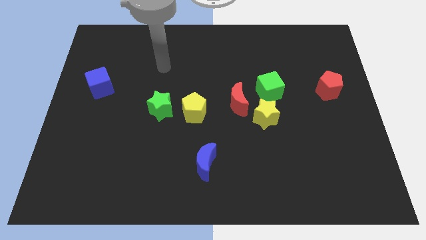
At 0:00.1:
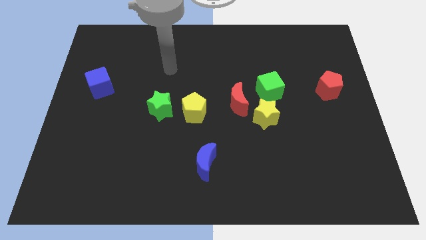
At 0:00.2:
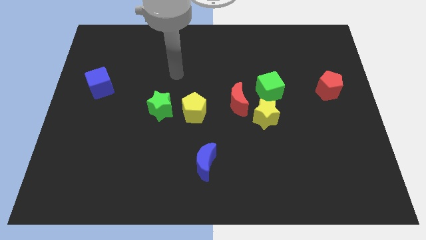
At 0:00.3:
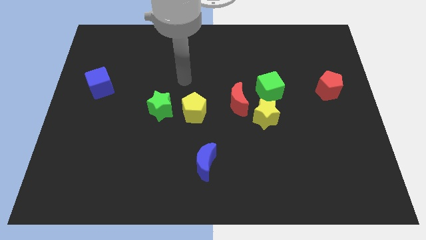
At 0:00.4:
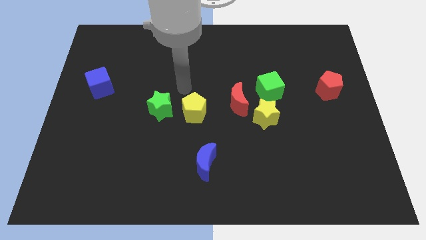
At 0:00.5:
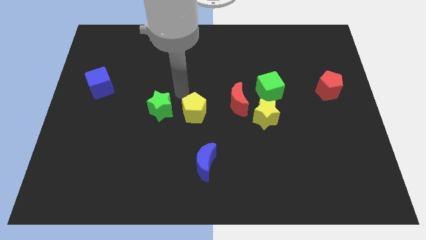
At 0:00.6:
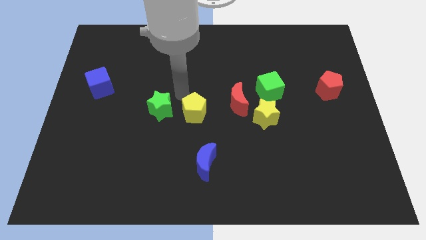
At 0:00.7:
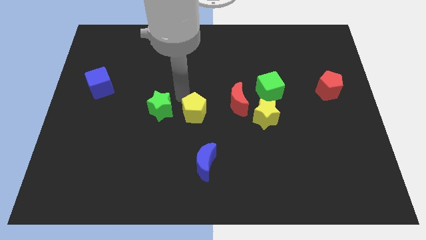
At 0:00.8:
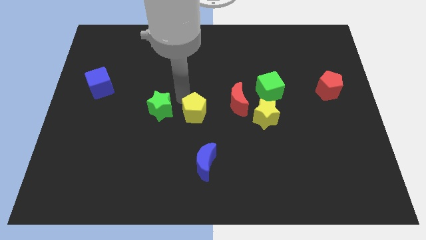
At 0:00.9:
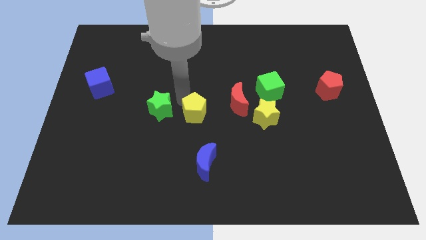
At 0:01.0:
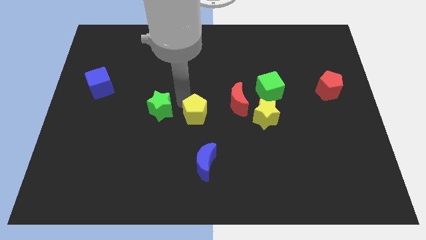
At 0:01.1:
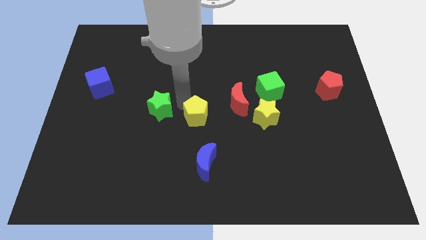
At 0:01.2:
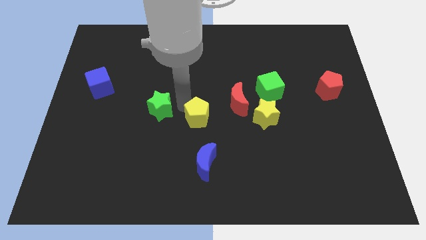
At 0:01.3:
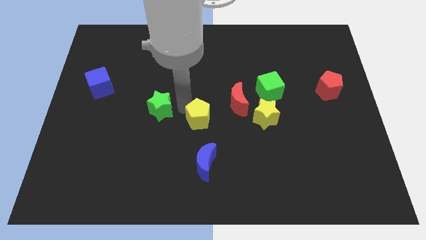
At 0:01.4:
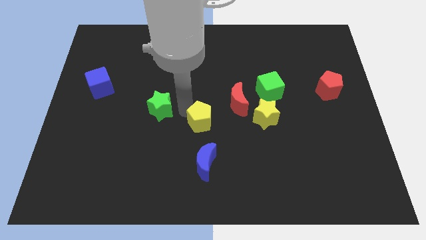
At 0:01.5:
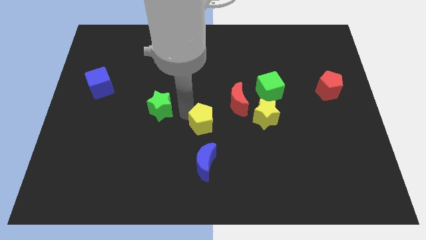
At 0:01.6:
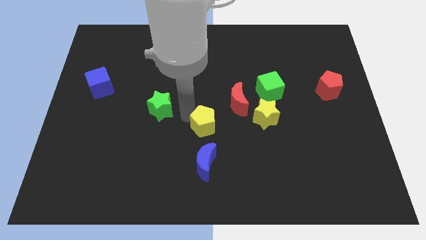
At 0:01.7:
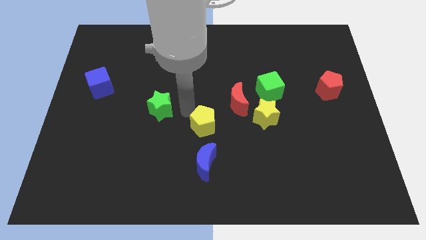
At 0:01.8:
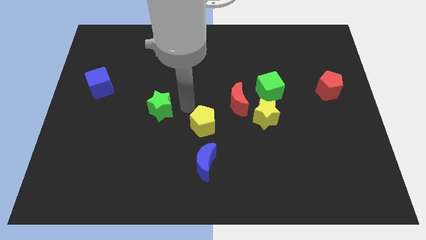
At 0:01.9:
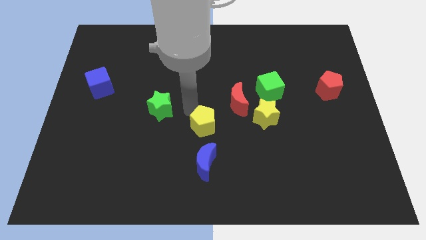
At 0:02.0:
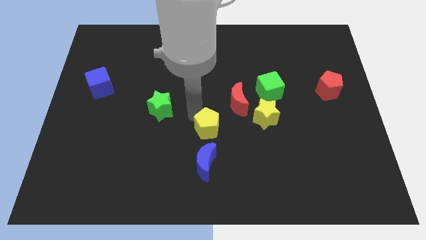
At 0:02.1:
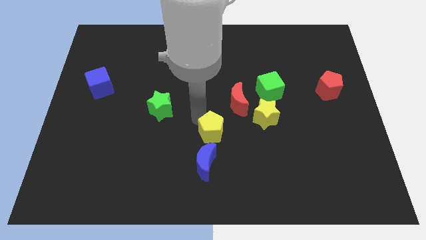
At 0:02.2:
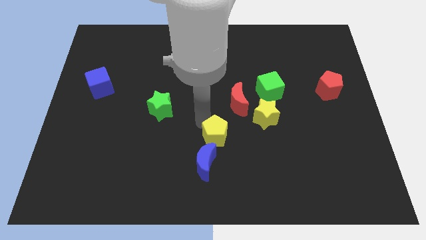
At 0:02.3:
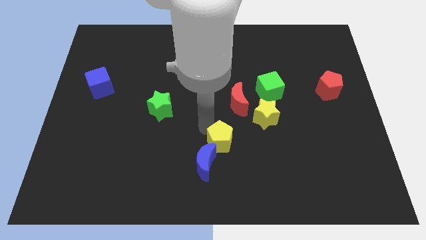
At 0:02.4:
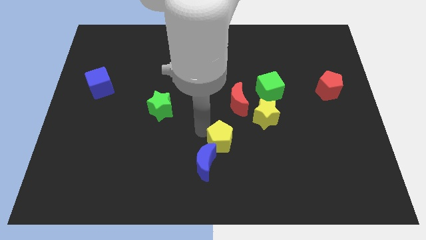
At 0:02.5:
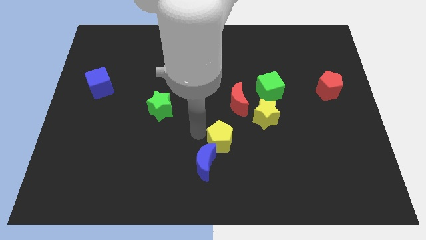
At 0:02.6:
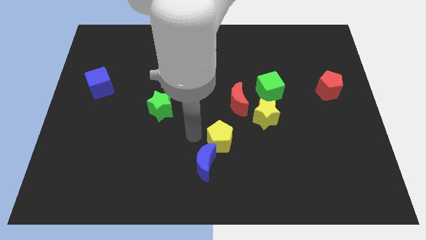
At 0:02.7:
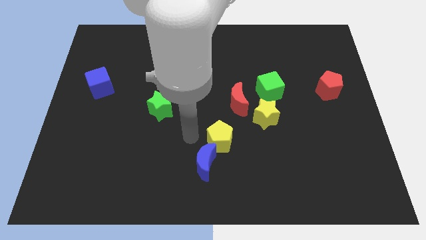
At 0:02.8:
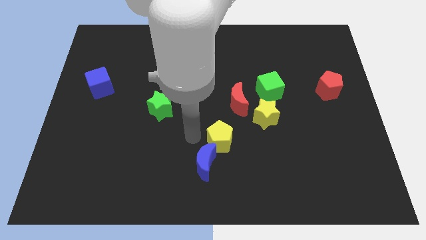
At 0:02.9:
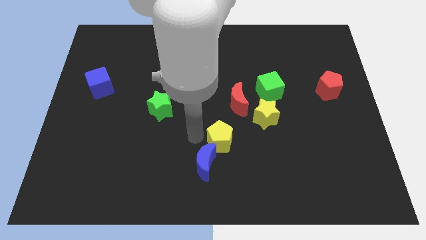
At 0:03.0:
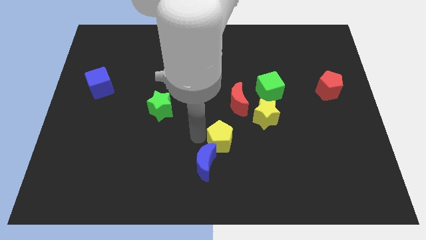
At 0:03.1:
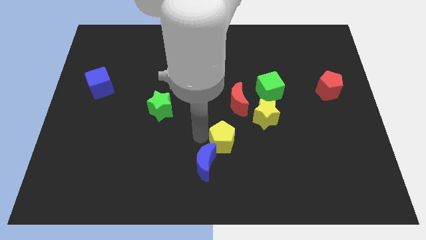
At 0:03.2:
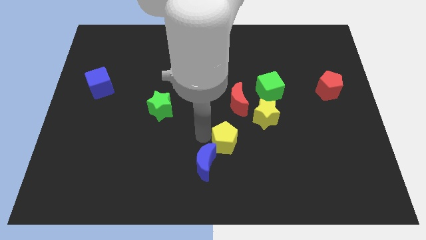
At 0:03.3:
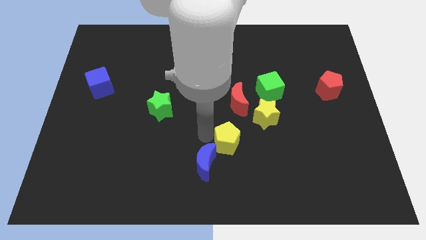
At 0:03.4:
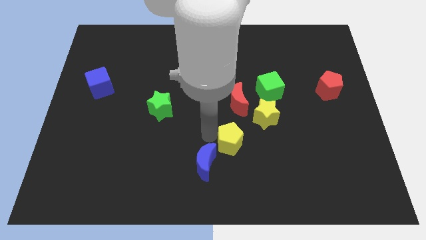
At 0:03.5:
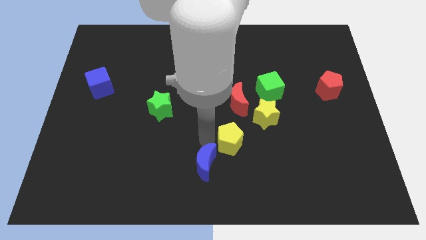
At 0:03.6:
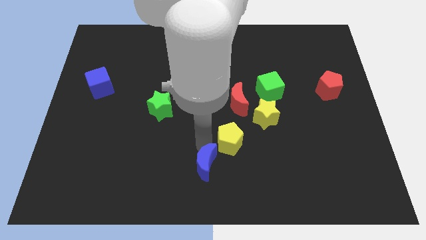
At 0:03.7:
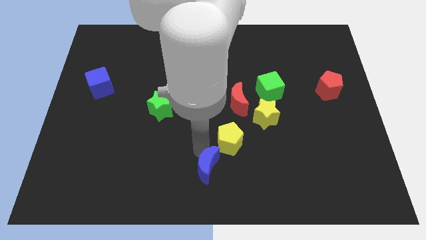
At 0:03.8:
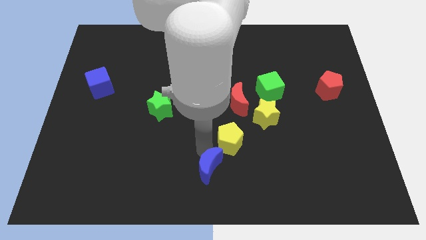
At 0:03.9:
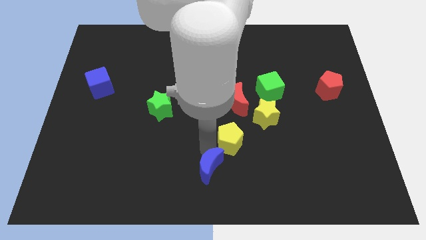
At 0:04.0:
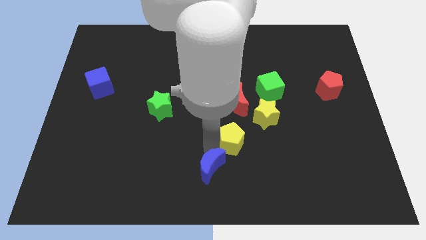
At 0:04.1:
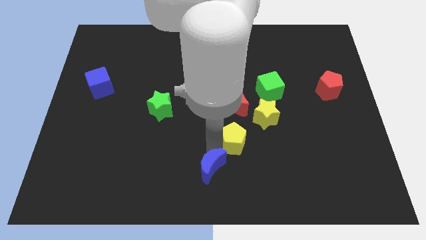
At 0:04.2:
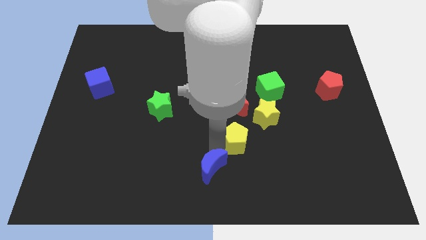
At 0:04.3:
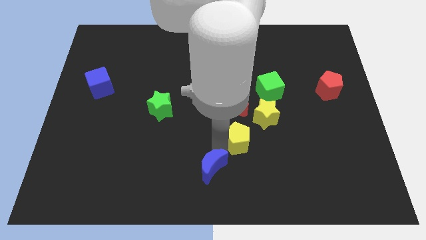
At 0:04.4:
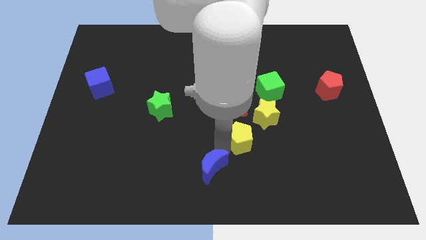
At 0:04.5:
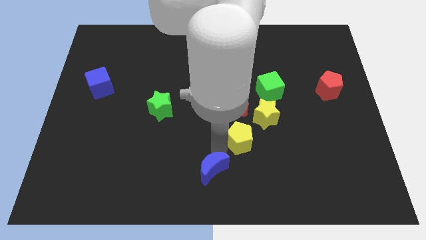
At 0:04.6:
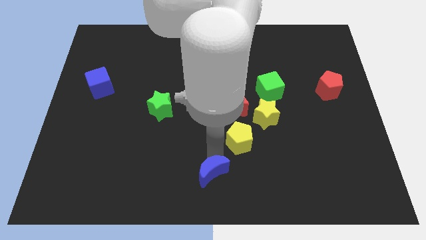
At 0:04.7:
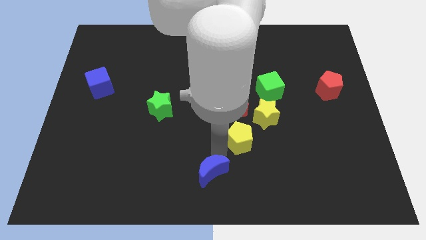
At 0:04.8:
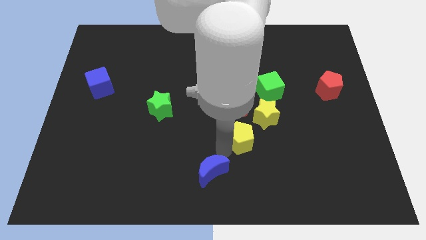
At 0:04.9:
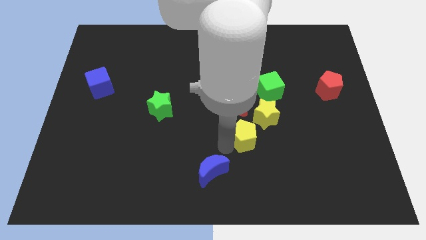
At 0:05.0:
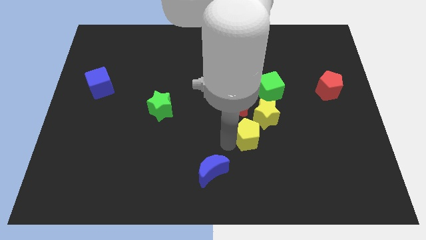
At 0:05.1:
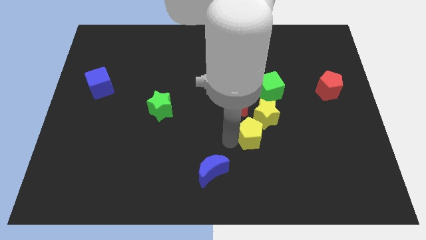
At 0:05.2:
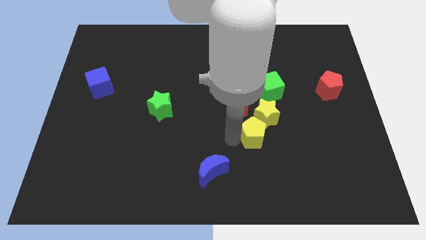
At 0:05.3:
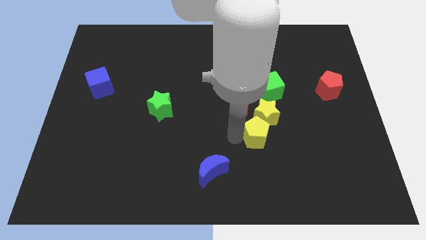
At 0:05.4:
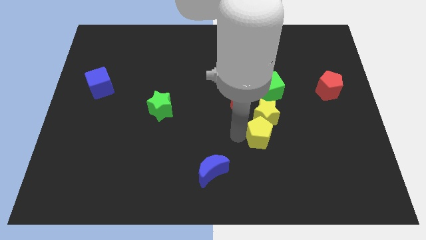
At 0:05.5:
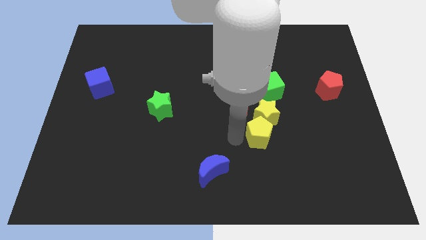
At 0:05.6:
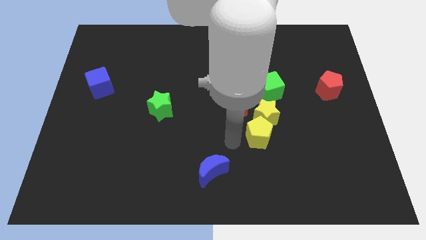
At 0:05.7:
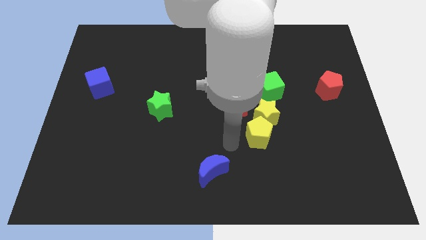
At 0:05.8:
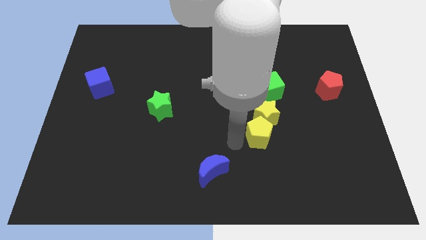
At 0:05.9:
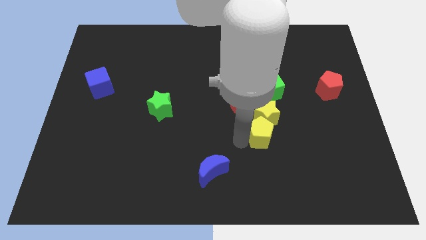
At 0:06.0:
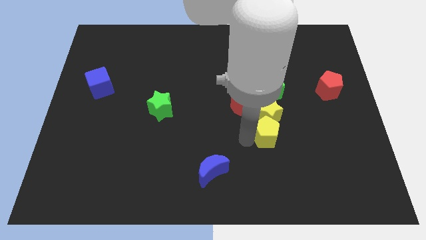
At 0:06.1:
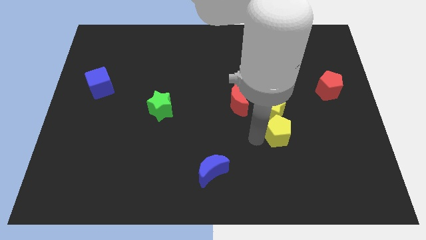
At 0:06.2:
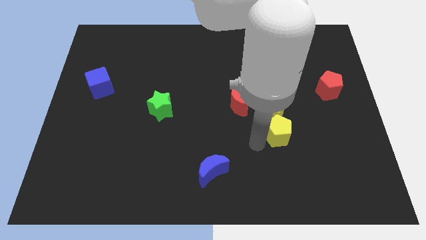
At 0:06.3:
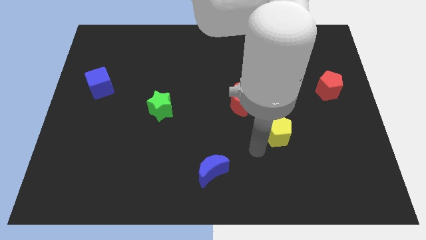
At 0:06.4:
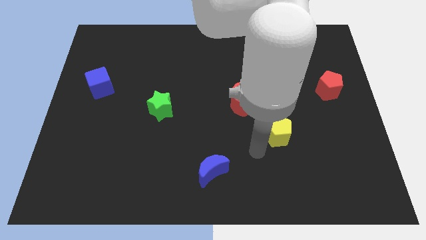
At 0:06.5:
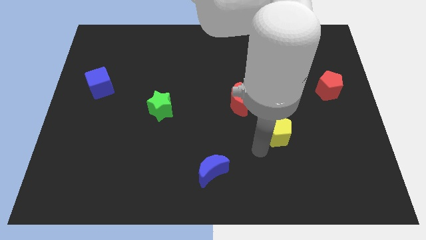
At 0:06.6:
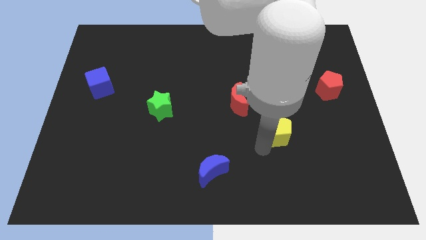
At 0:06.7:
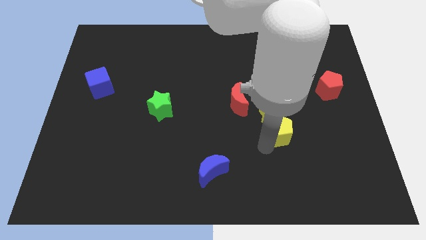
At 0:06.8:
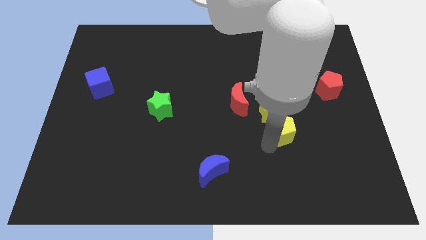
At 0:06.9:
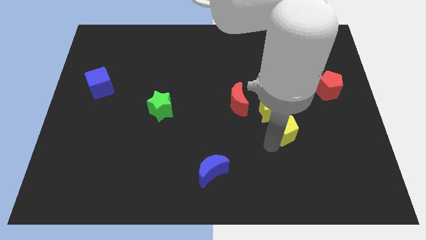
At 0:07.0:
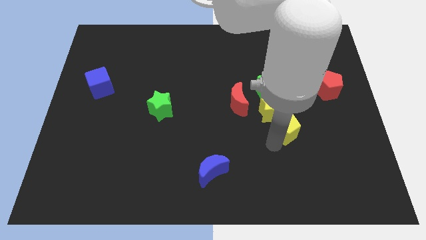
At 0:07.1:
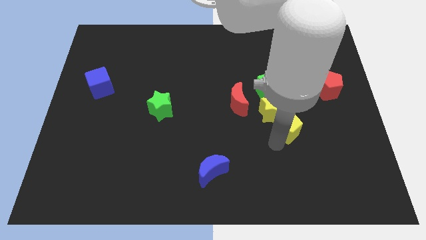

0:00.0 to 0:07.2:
move the yellow pentagon to the right

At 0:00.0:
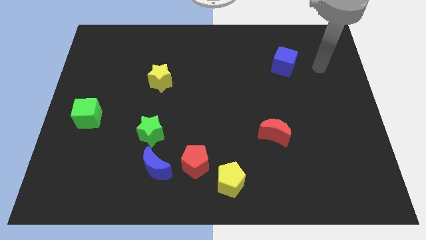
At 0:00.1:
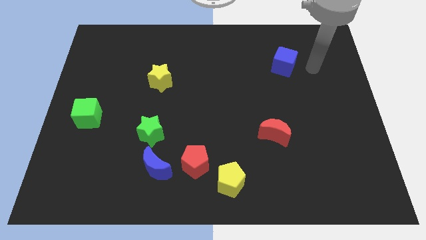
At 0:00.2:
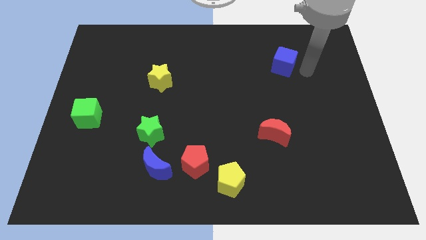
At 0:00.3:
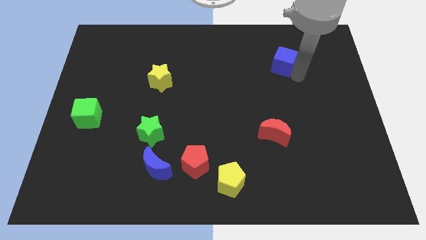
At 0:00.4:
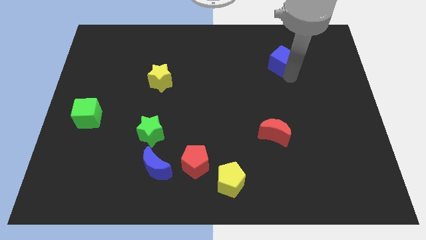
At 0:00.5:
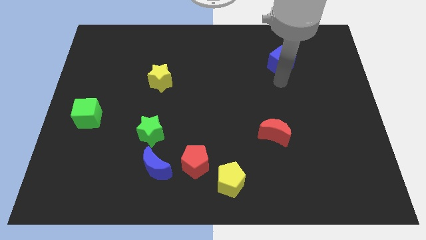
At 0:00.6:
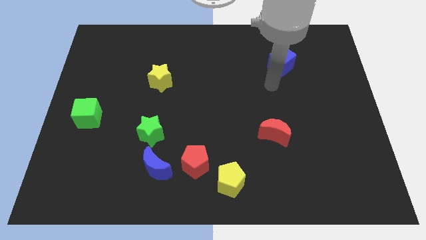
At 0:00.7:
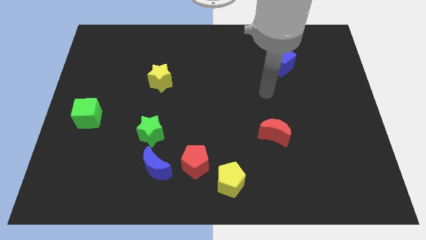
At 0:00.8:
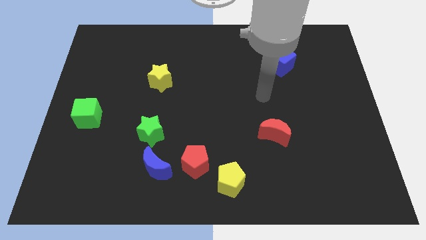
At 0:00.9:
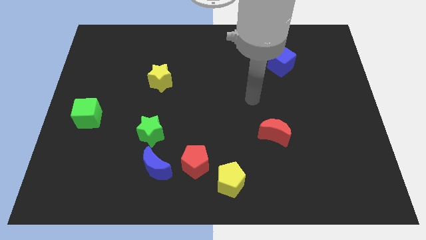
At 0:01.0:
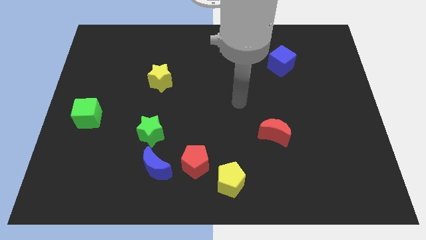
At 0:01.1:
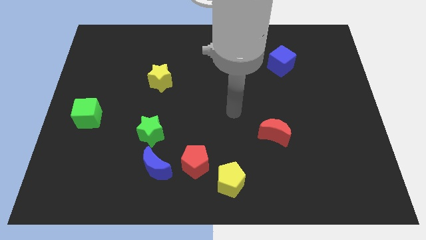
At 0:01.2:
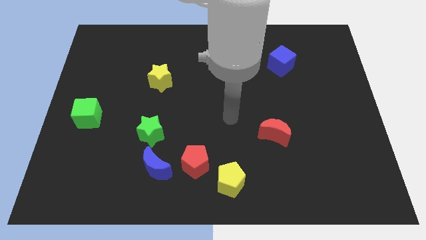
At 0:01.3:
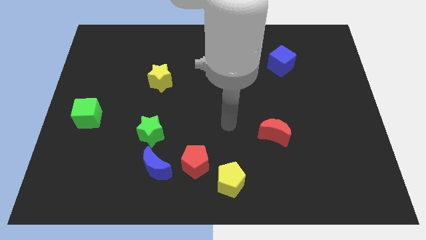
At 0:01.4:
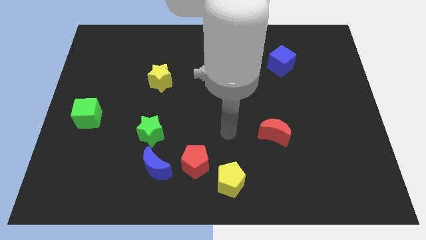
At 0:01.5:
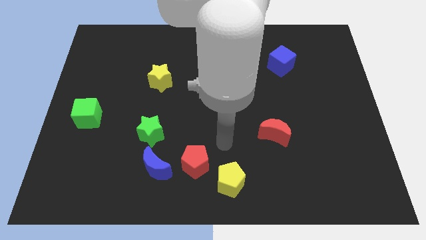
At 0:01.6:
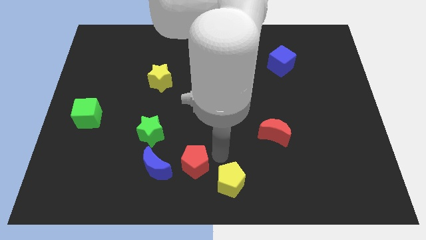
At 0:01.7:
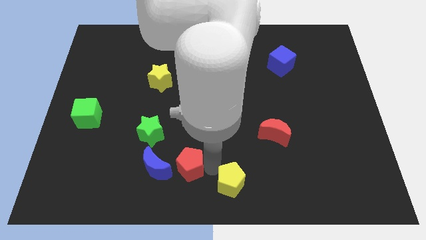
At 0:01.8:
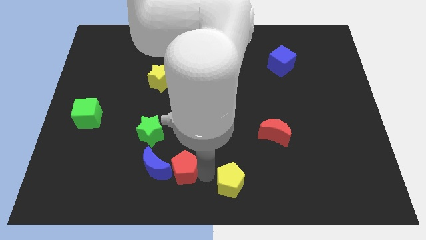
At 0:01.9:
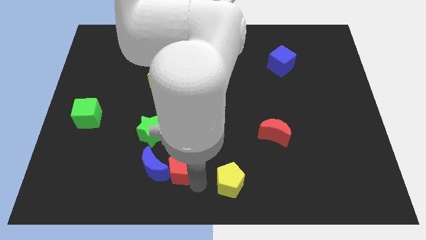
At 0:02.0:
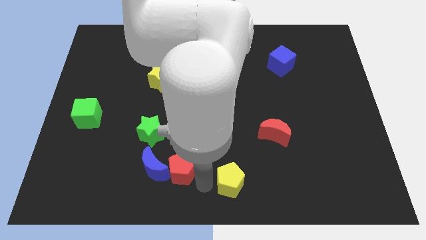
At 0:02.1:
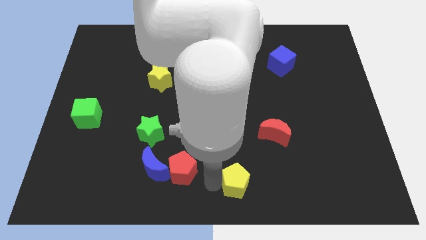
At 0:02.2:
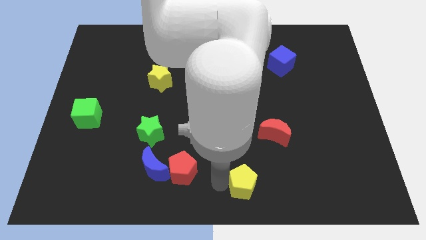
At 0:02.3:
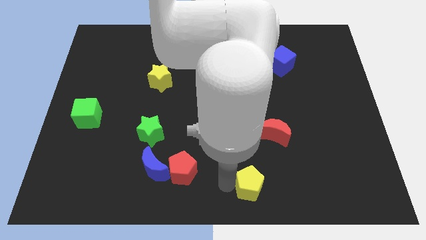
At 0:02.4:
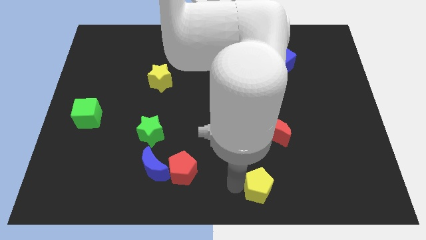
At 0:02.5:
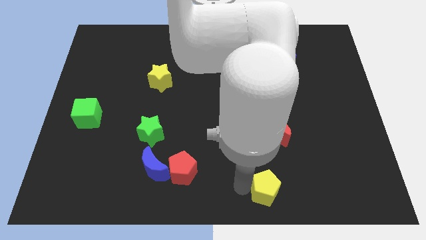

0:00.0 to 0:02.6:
slide the yellow pentagon somewhat right
